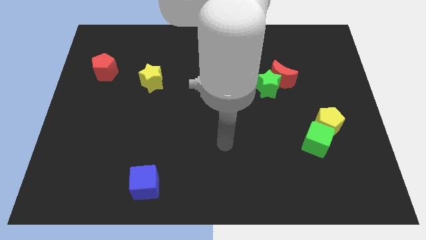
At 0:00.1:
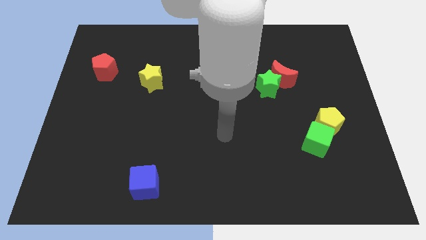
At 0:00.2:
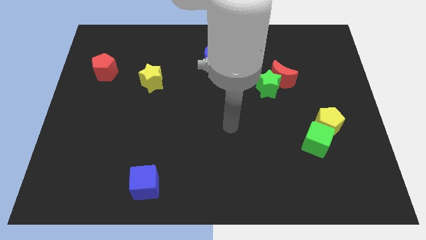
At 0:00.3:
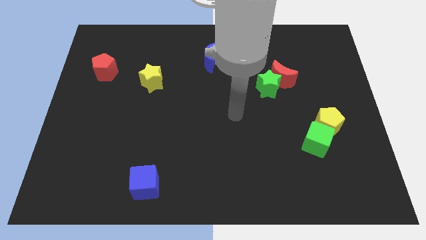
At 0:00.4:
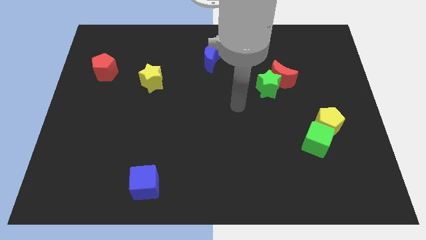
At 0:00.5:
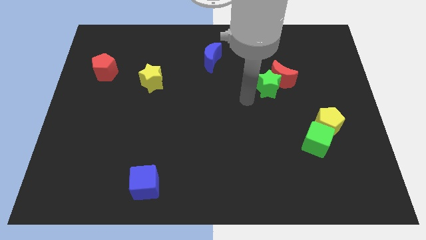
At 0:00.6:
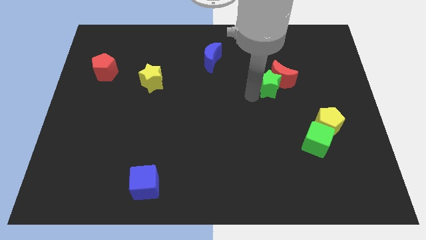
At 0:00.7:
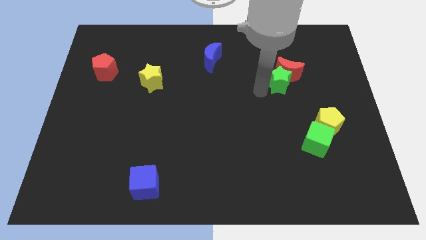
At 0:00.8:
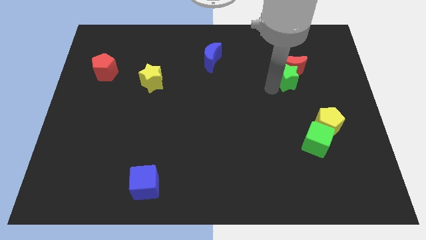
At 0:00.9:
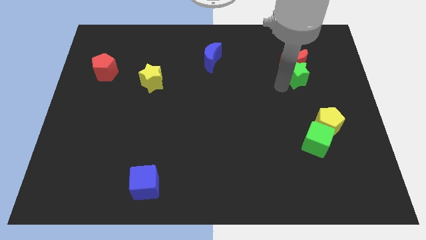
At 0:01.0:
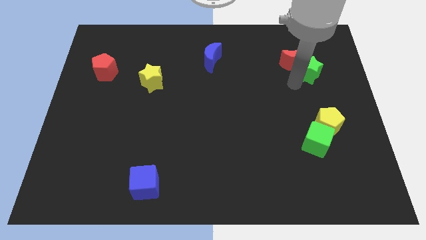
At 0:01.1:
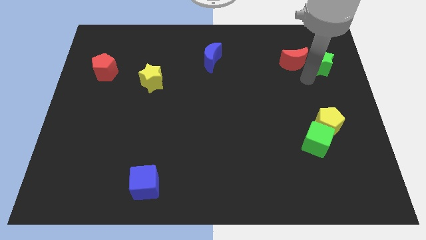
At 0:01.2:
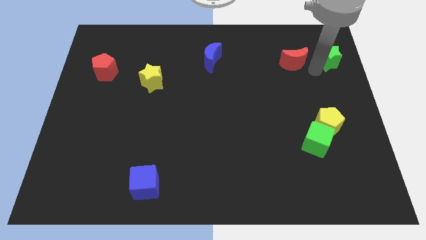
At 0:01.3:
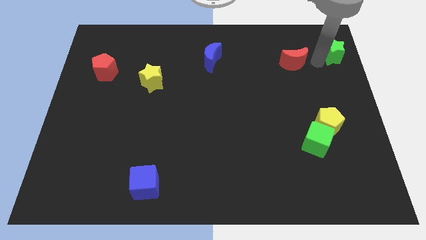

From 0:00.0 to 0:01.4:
pull the red moon apart from the green star

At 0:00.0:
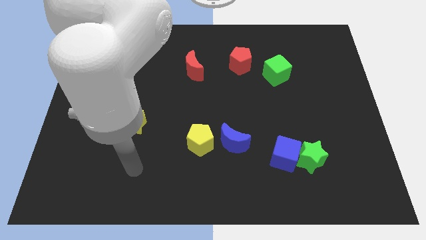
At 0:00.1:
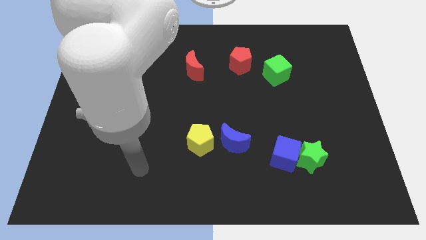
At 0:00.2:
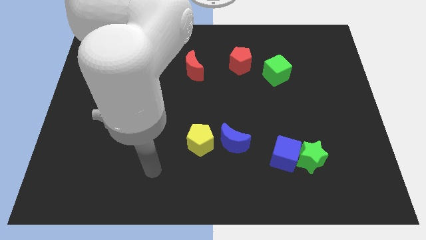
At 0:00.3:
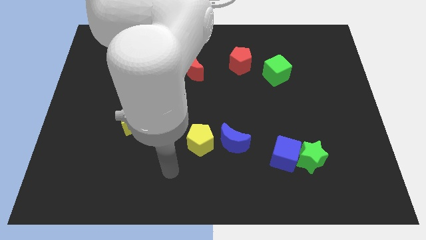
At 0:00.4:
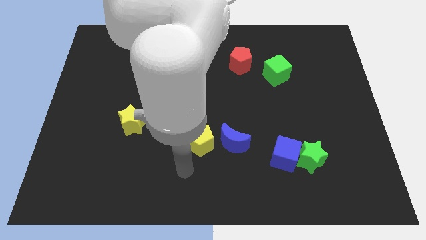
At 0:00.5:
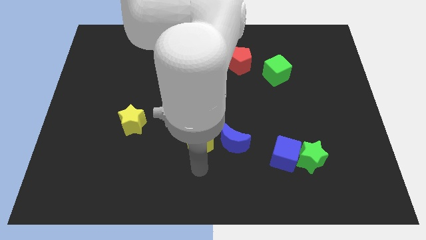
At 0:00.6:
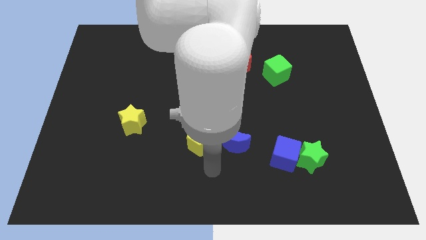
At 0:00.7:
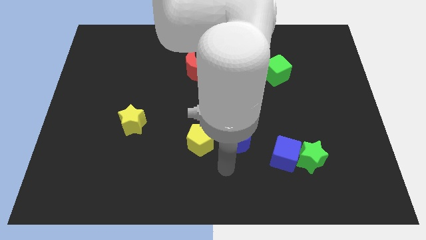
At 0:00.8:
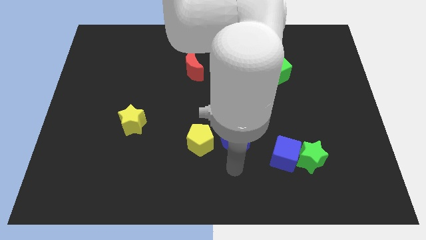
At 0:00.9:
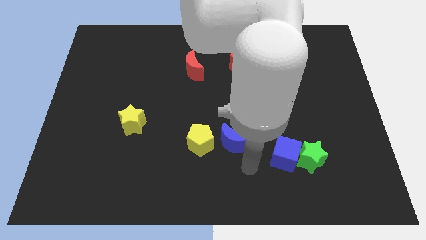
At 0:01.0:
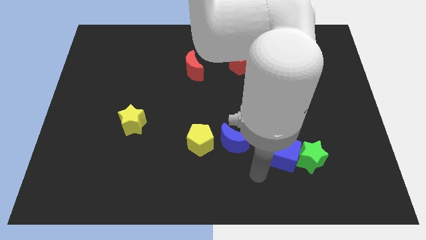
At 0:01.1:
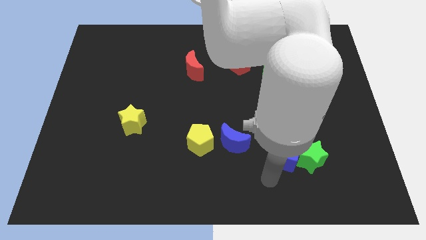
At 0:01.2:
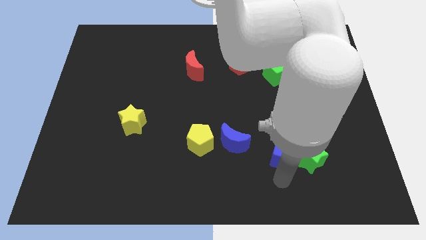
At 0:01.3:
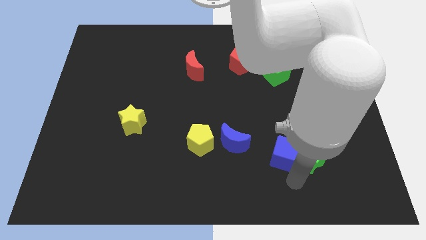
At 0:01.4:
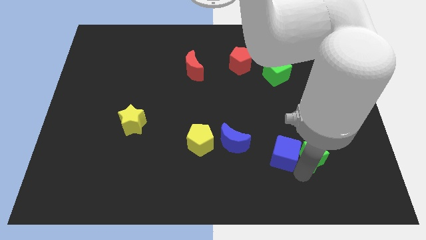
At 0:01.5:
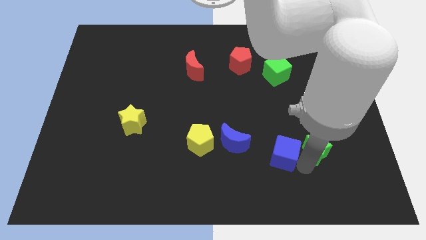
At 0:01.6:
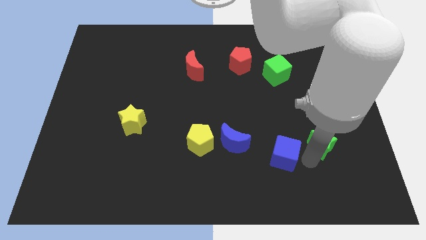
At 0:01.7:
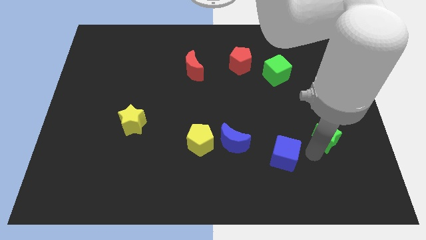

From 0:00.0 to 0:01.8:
separate the blue cube from the green star

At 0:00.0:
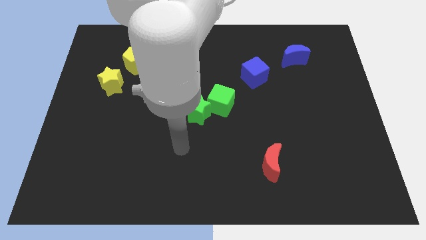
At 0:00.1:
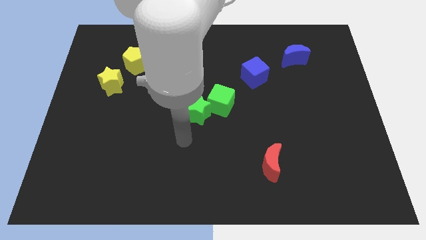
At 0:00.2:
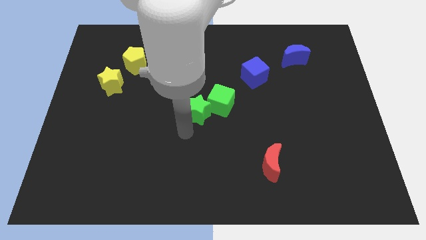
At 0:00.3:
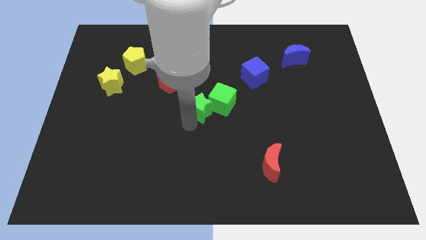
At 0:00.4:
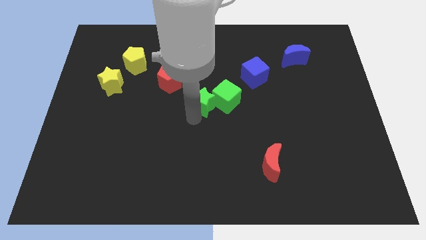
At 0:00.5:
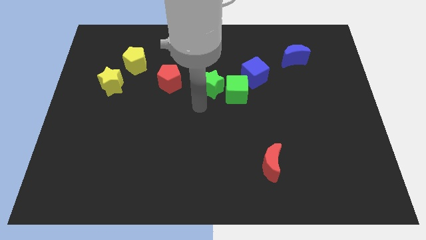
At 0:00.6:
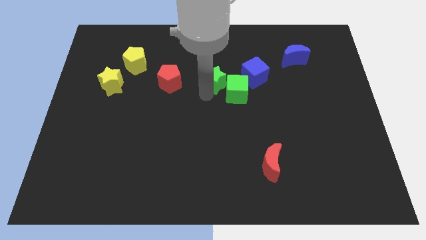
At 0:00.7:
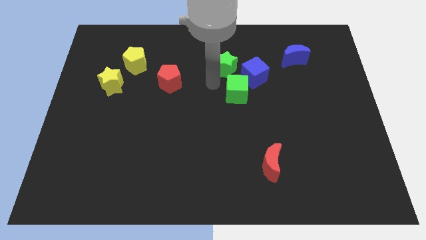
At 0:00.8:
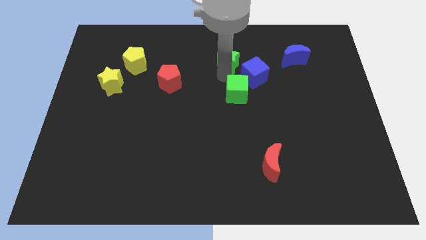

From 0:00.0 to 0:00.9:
pull the green cube apart from the green star

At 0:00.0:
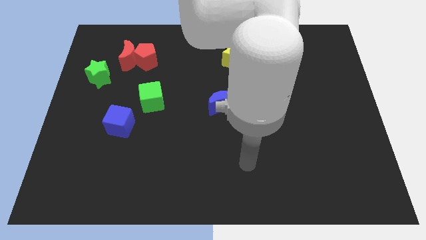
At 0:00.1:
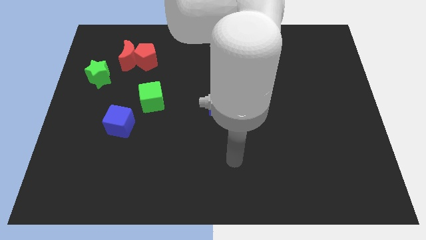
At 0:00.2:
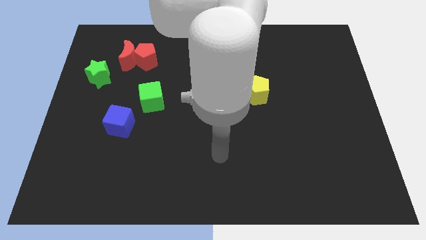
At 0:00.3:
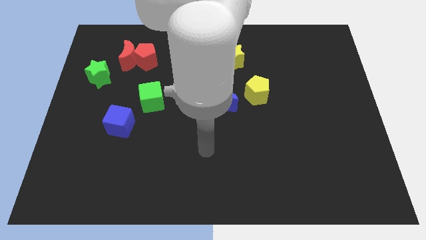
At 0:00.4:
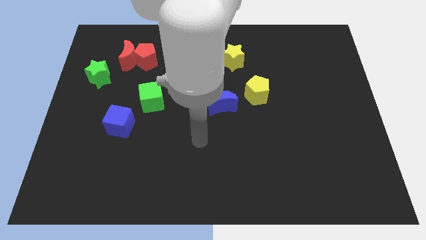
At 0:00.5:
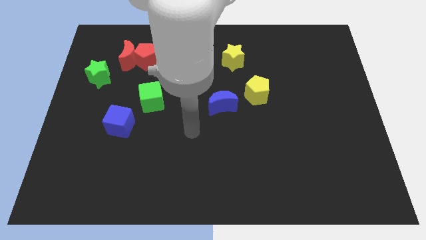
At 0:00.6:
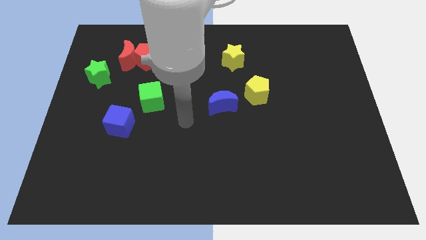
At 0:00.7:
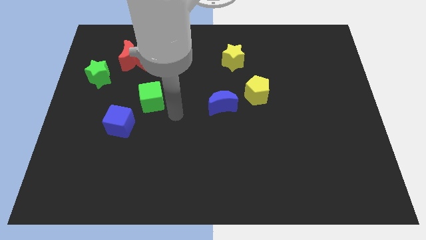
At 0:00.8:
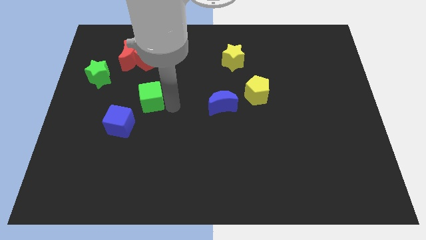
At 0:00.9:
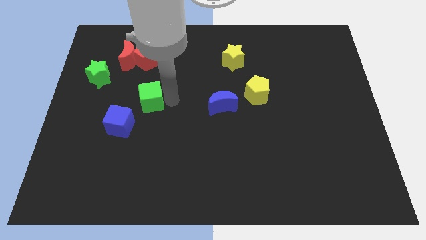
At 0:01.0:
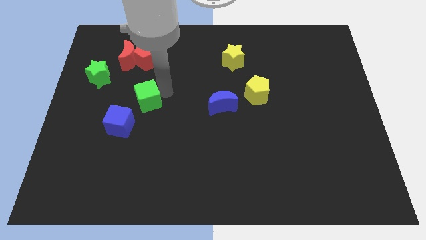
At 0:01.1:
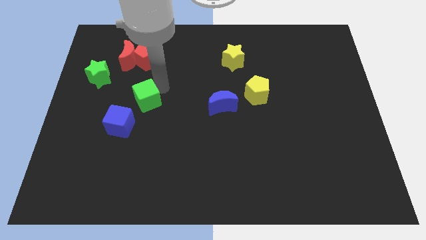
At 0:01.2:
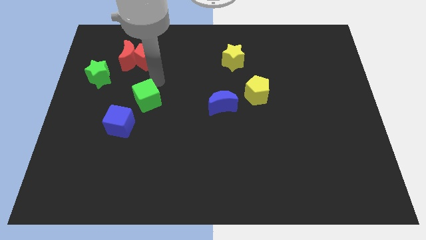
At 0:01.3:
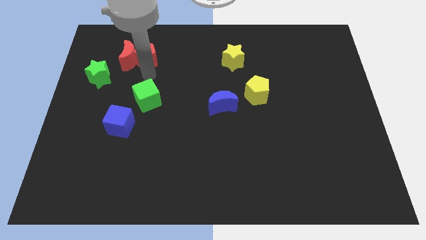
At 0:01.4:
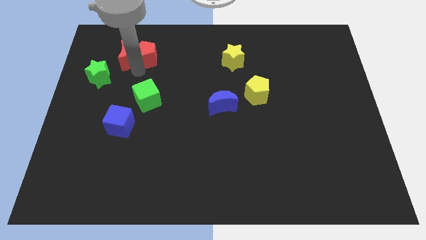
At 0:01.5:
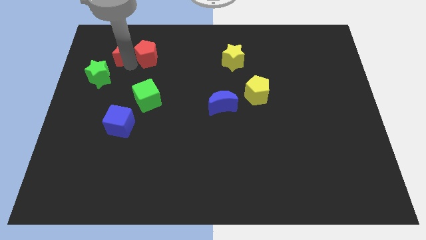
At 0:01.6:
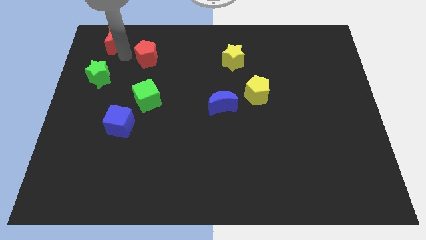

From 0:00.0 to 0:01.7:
move the red pentagon away from the red moon

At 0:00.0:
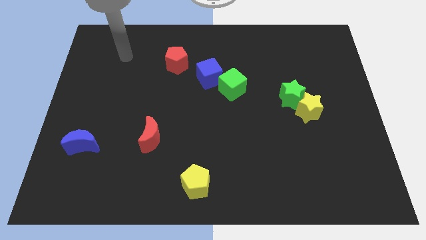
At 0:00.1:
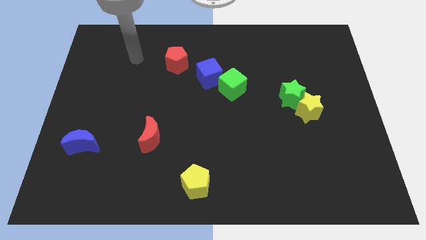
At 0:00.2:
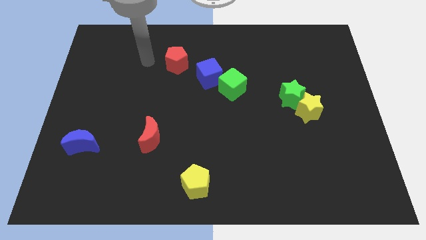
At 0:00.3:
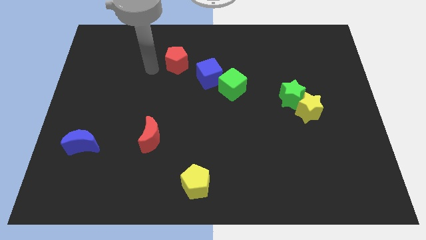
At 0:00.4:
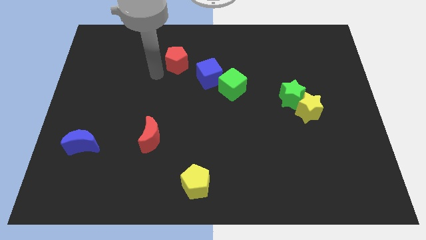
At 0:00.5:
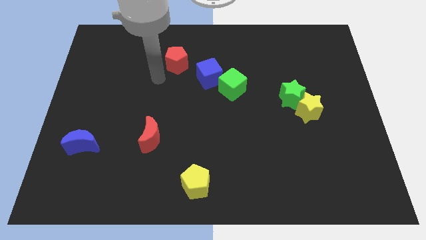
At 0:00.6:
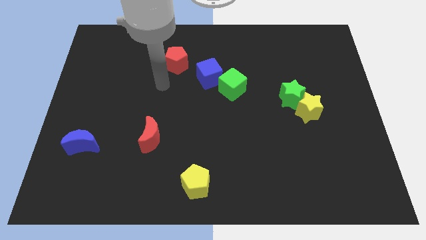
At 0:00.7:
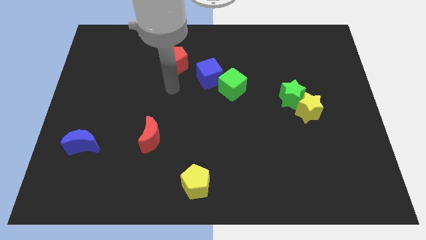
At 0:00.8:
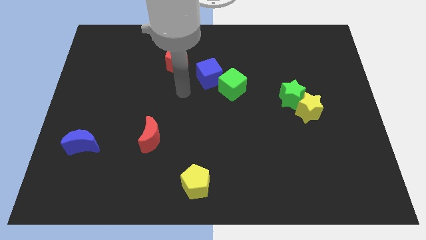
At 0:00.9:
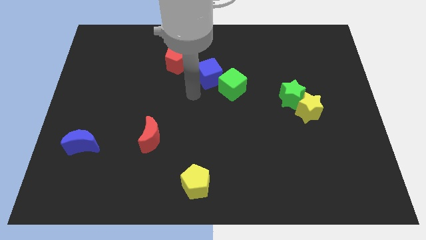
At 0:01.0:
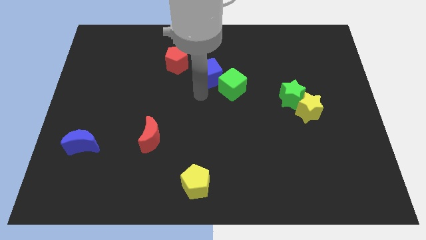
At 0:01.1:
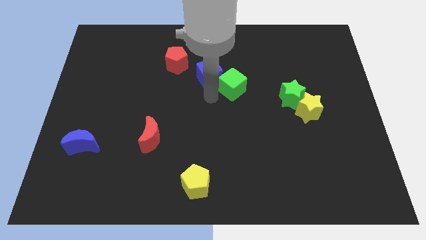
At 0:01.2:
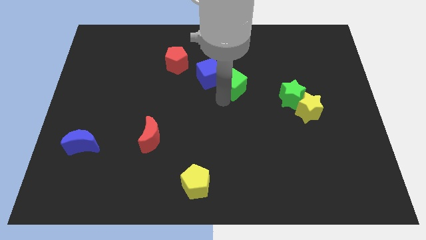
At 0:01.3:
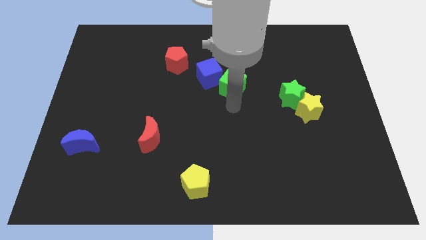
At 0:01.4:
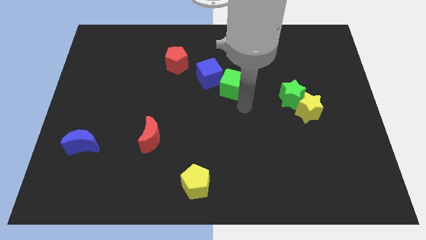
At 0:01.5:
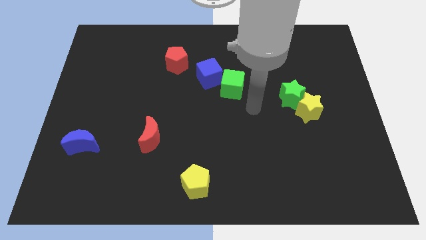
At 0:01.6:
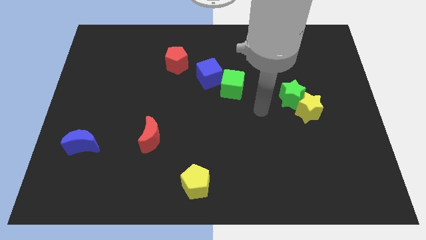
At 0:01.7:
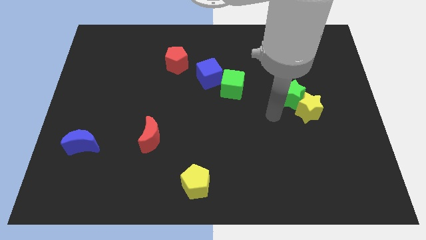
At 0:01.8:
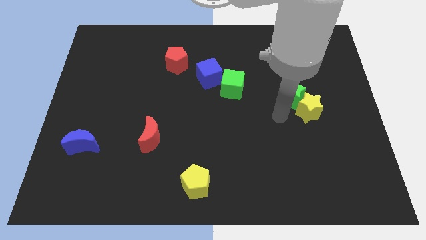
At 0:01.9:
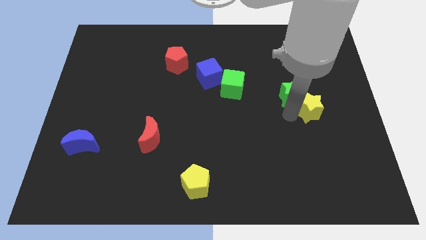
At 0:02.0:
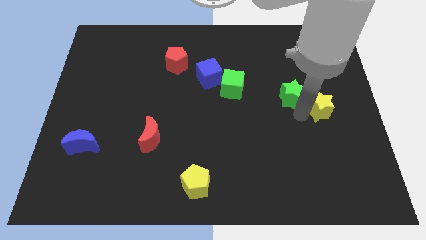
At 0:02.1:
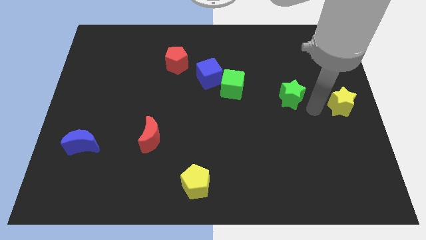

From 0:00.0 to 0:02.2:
move the green star away from the yellow star

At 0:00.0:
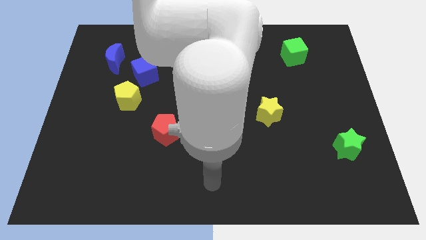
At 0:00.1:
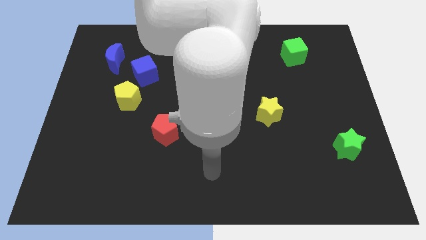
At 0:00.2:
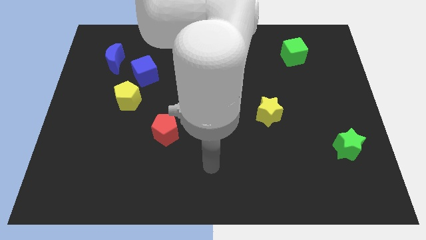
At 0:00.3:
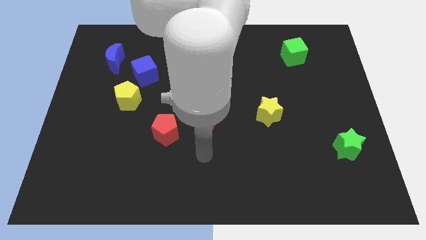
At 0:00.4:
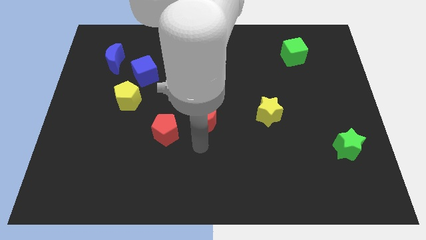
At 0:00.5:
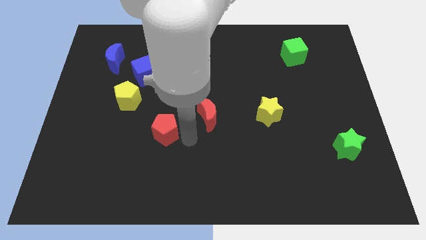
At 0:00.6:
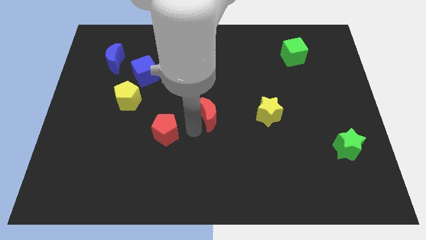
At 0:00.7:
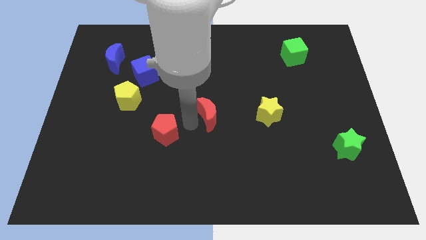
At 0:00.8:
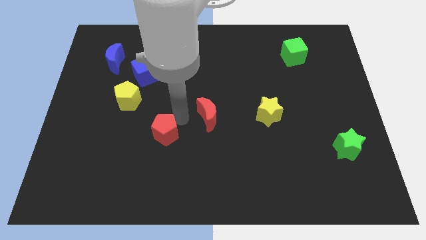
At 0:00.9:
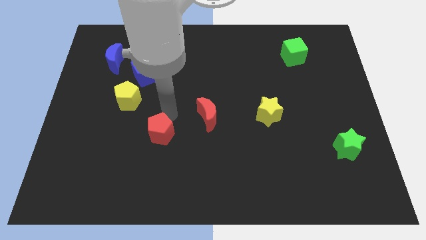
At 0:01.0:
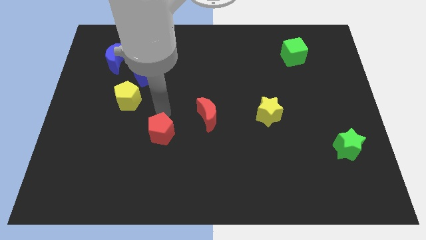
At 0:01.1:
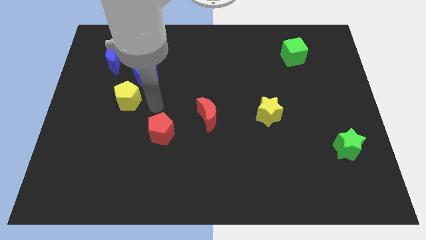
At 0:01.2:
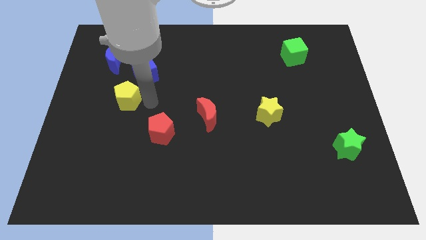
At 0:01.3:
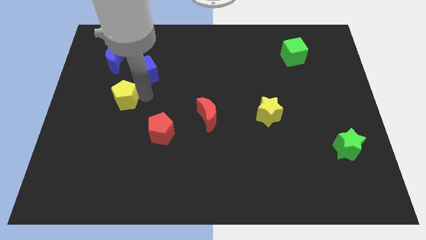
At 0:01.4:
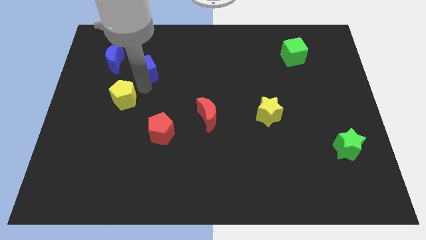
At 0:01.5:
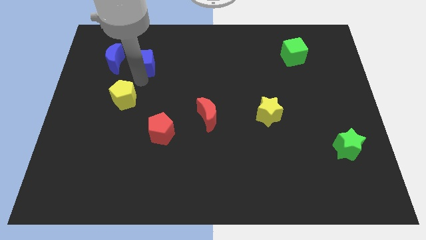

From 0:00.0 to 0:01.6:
move the yellow pentagon away from the blue cube
